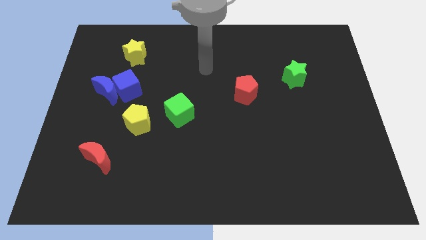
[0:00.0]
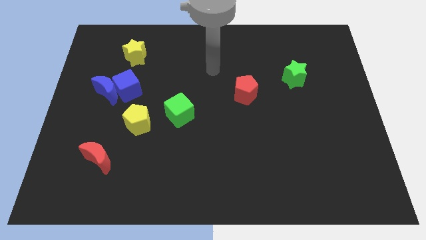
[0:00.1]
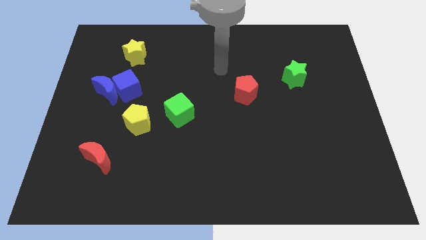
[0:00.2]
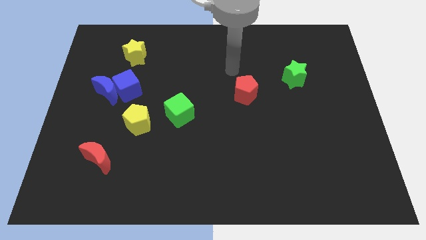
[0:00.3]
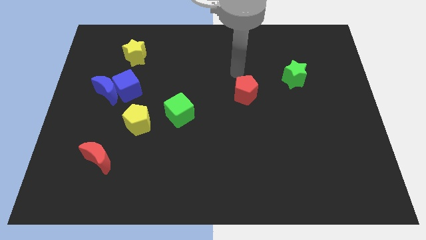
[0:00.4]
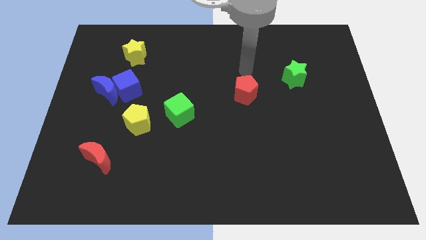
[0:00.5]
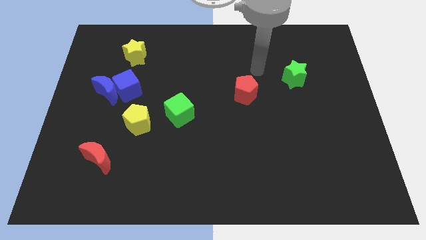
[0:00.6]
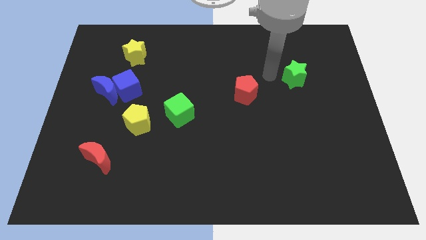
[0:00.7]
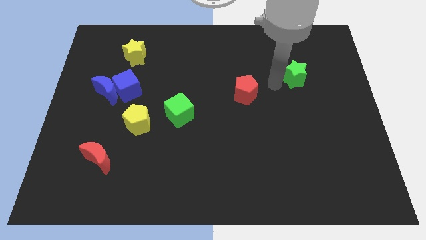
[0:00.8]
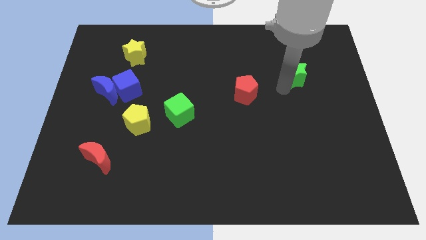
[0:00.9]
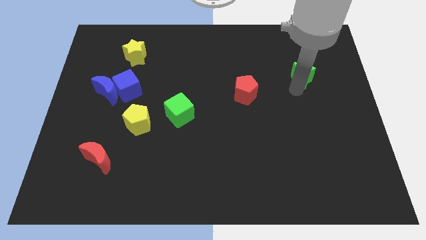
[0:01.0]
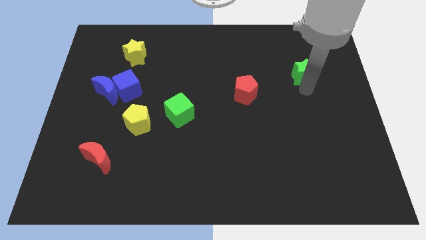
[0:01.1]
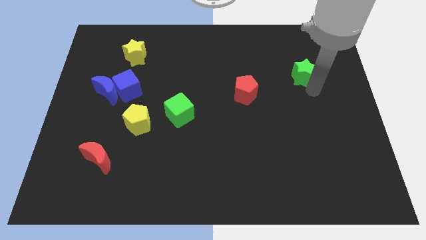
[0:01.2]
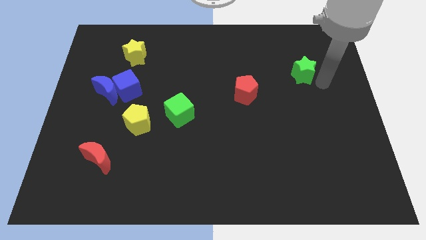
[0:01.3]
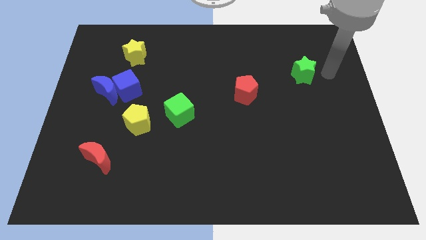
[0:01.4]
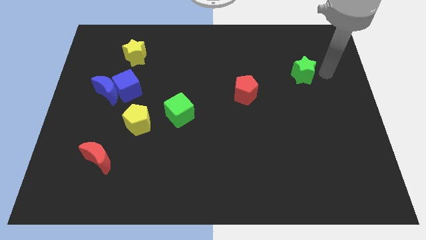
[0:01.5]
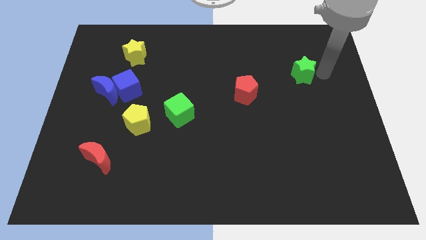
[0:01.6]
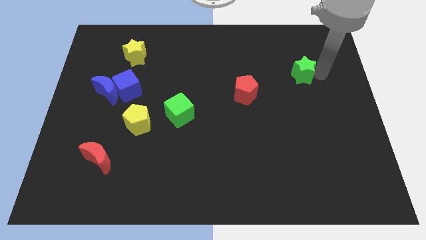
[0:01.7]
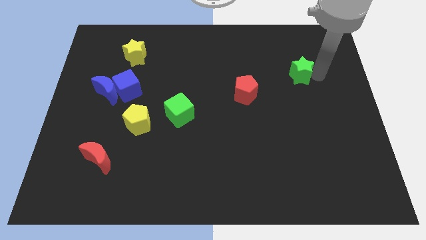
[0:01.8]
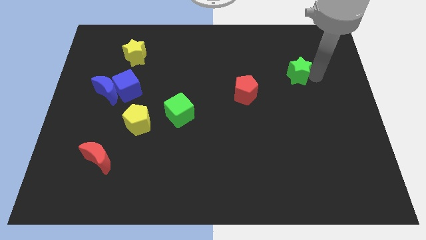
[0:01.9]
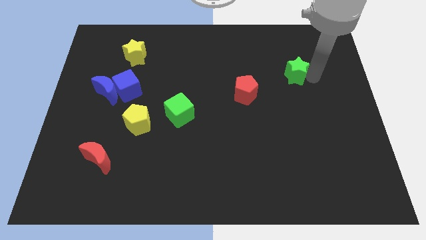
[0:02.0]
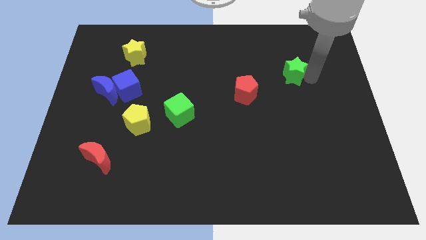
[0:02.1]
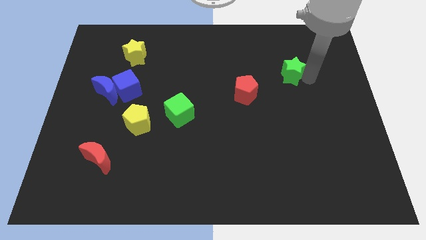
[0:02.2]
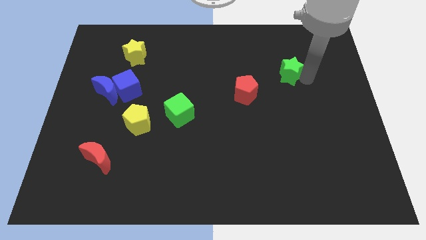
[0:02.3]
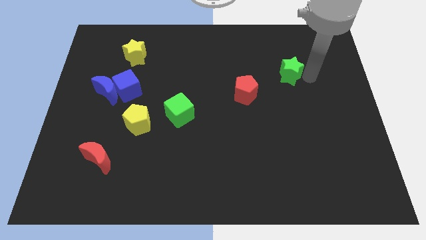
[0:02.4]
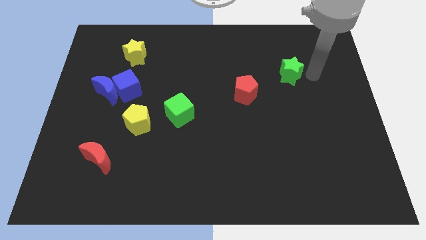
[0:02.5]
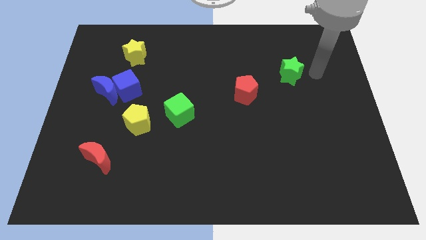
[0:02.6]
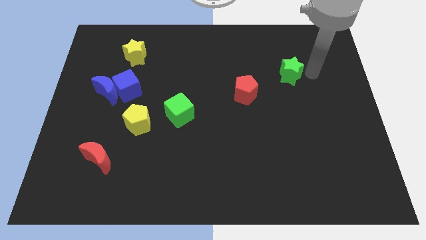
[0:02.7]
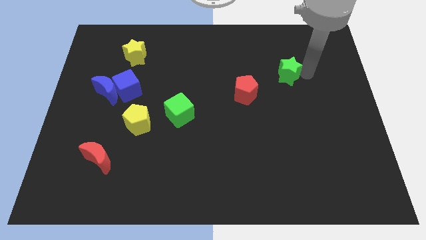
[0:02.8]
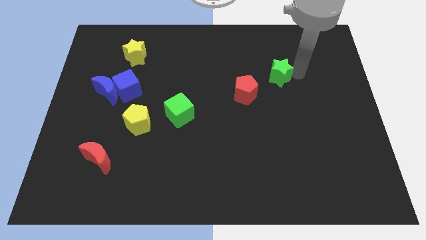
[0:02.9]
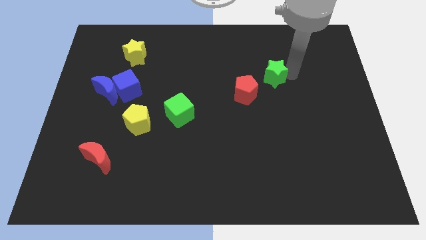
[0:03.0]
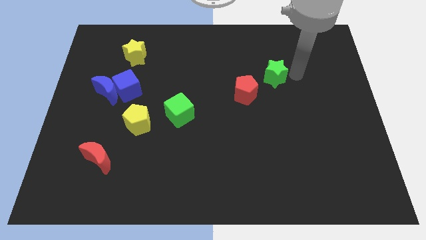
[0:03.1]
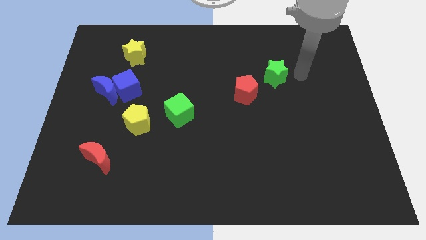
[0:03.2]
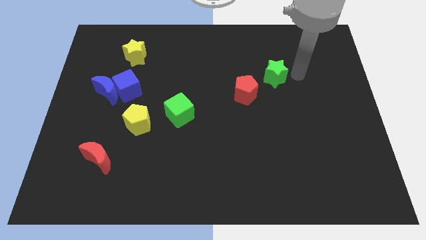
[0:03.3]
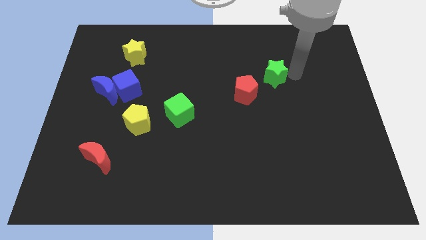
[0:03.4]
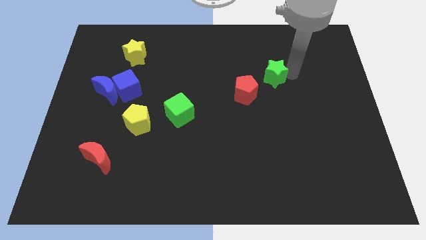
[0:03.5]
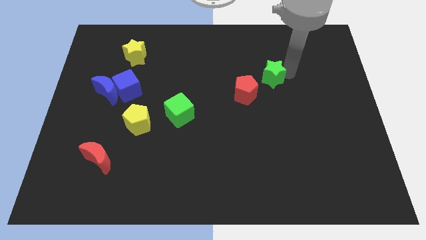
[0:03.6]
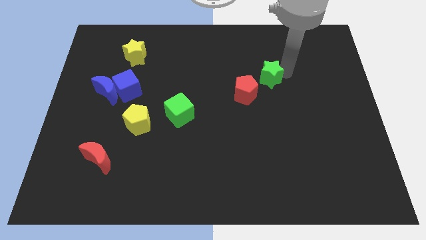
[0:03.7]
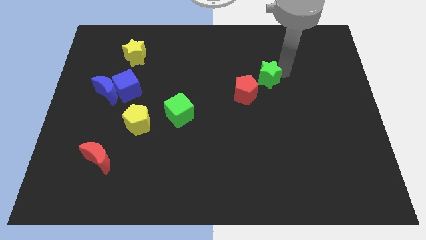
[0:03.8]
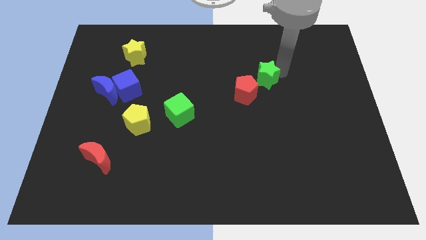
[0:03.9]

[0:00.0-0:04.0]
slide the green star slightly to the left

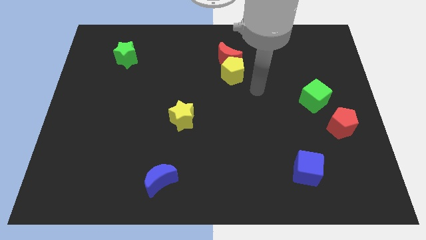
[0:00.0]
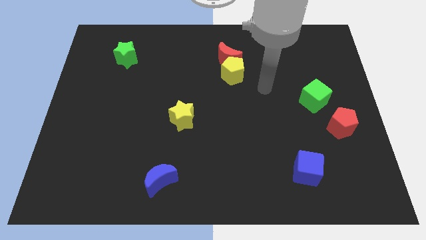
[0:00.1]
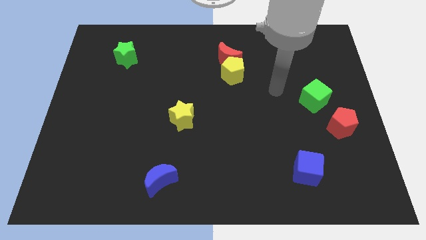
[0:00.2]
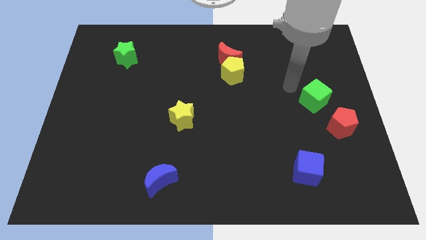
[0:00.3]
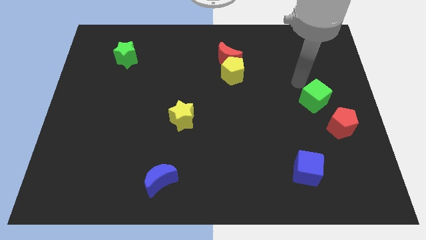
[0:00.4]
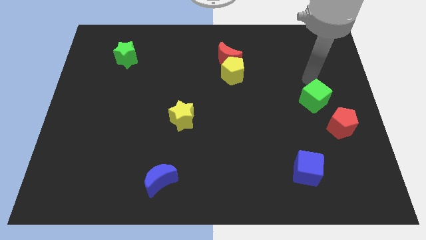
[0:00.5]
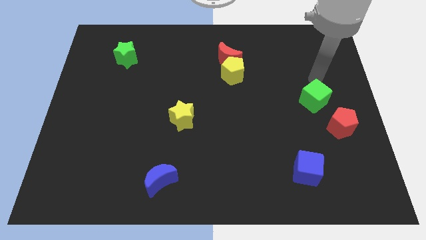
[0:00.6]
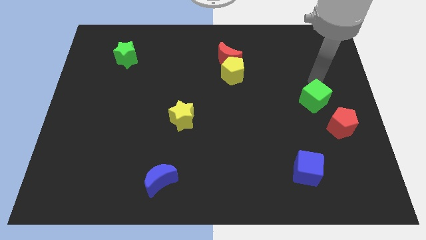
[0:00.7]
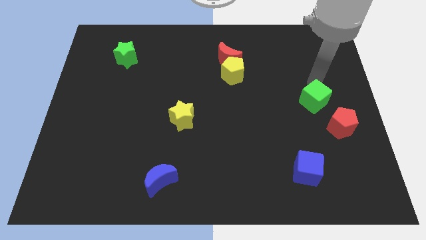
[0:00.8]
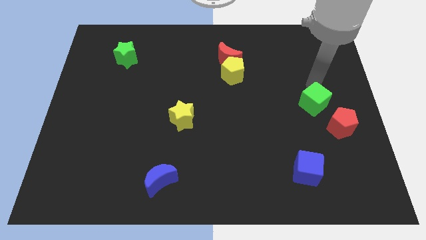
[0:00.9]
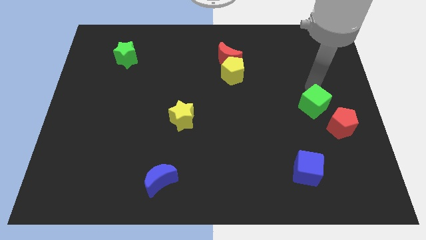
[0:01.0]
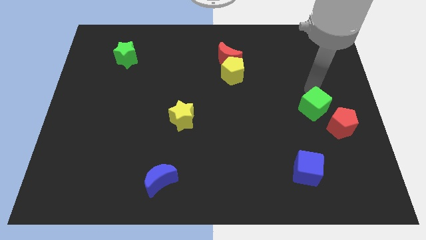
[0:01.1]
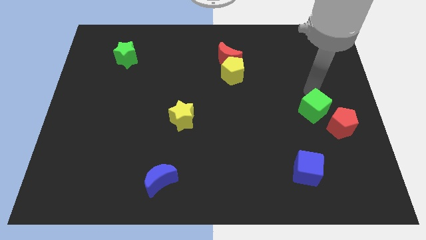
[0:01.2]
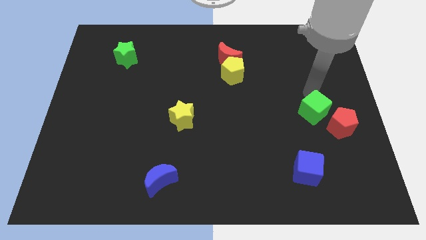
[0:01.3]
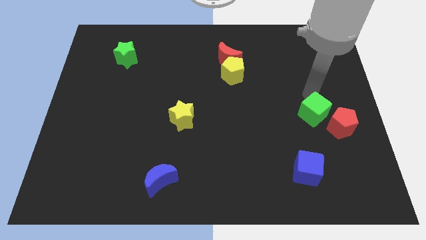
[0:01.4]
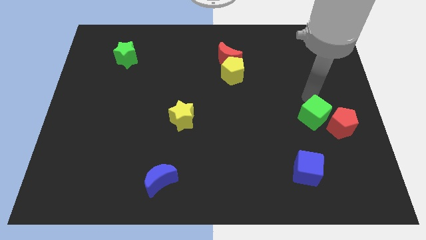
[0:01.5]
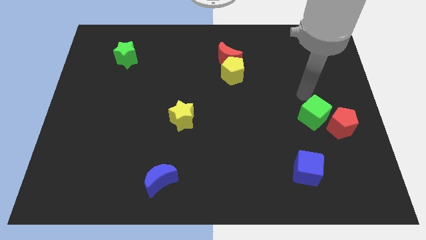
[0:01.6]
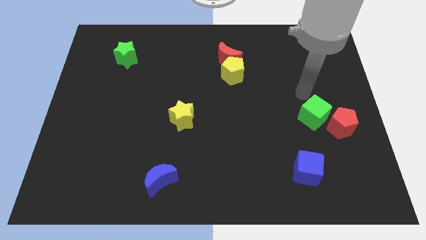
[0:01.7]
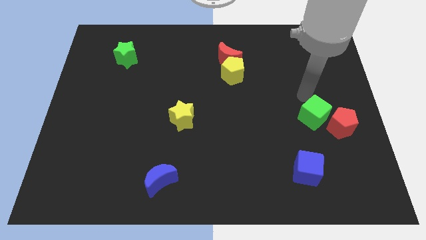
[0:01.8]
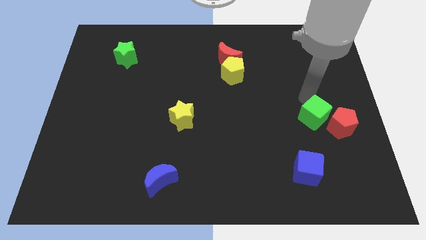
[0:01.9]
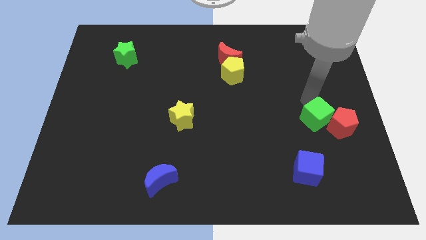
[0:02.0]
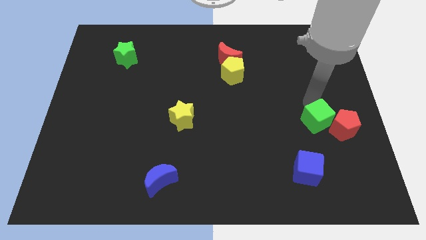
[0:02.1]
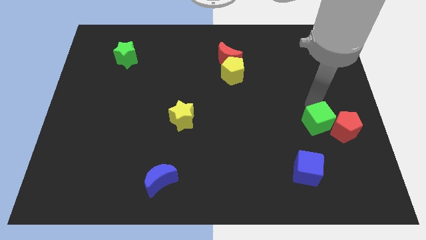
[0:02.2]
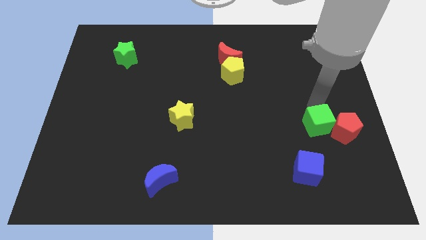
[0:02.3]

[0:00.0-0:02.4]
push the green cube a little downwards

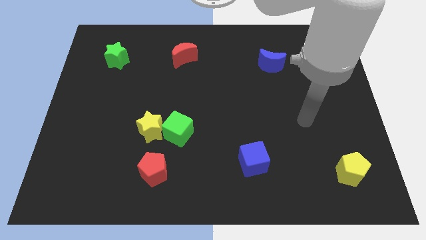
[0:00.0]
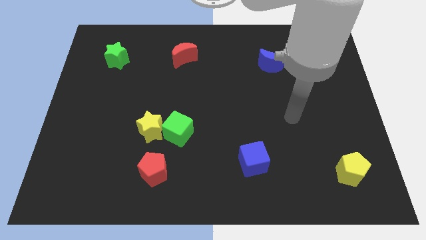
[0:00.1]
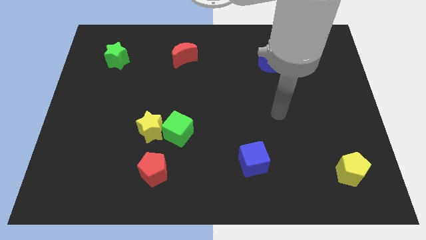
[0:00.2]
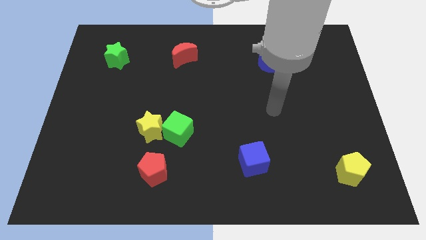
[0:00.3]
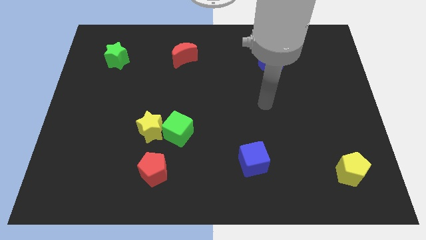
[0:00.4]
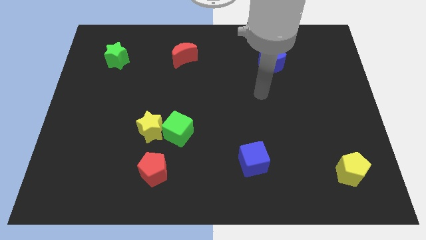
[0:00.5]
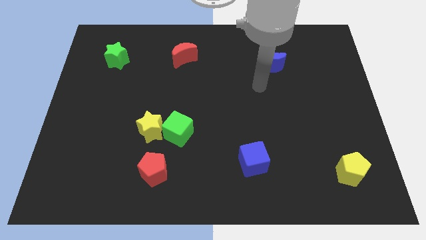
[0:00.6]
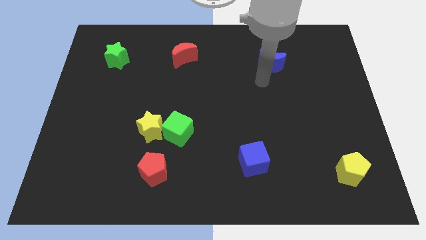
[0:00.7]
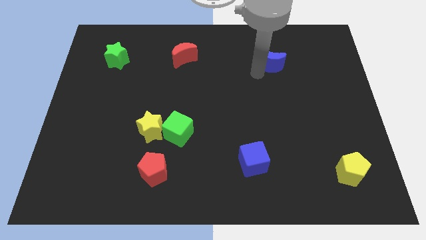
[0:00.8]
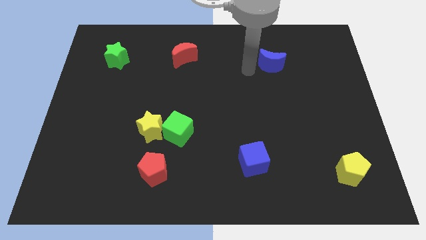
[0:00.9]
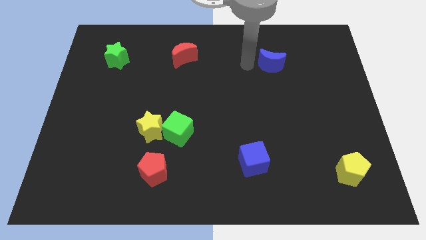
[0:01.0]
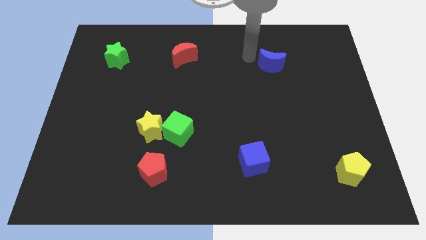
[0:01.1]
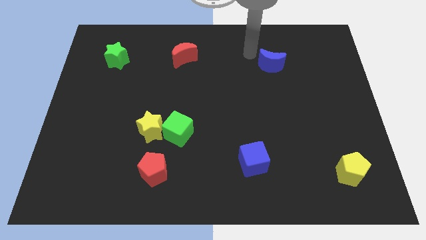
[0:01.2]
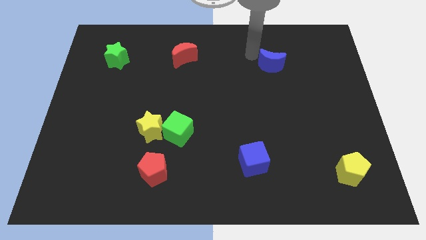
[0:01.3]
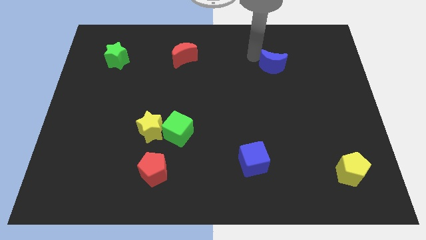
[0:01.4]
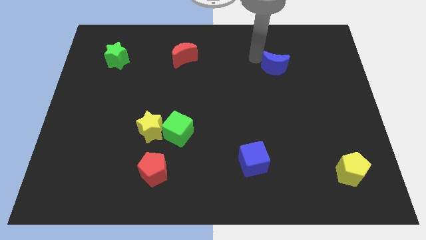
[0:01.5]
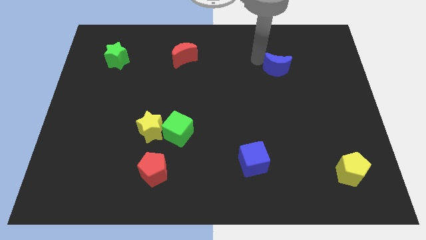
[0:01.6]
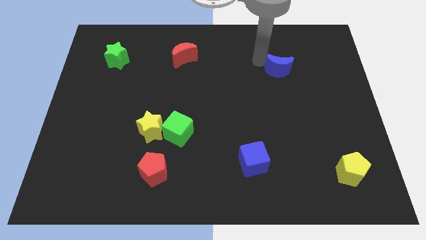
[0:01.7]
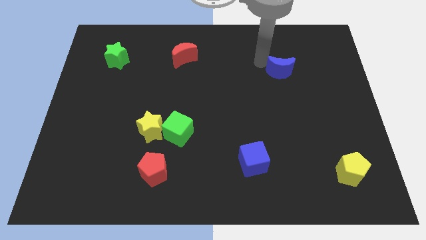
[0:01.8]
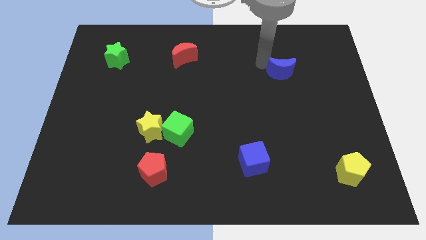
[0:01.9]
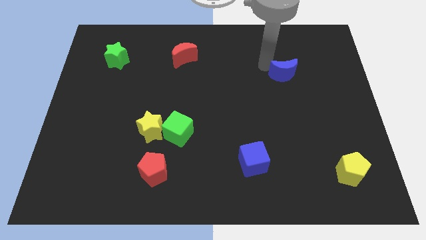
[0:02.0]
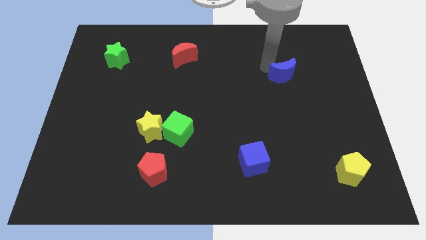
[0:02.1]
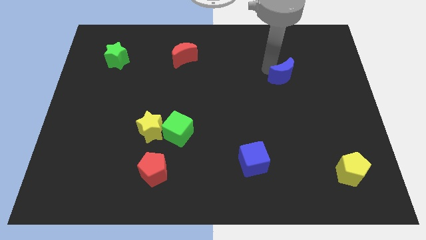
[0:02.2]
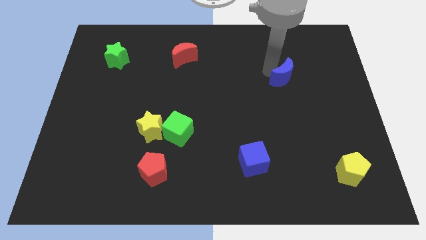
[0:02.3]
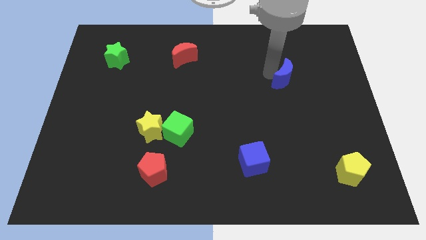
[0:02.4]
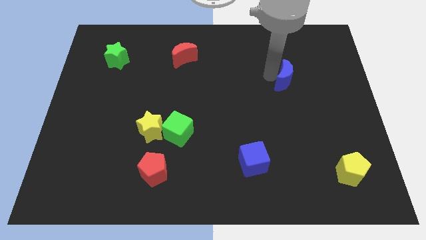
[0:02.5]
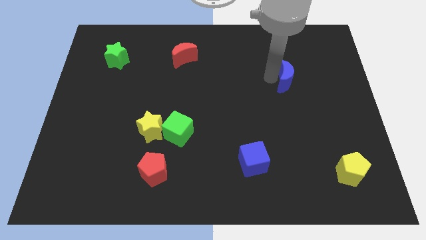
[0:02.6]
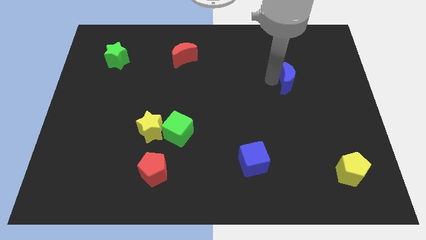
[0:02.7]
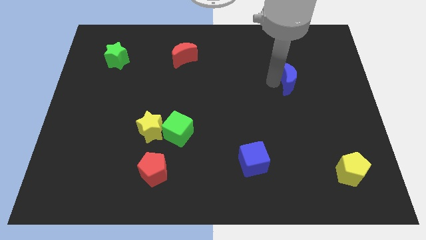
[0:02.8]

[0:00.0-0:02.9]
slightly push the blue moon downwards and right
